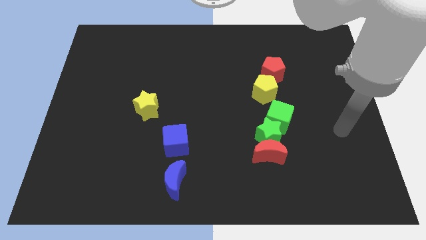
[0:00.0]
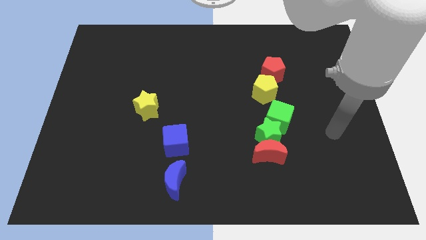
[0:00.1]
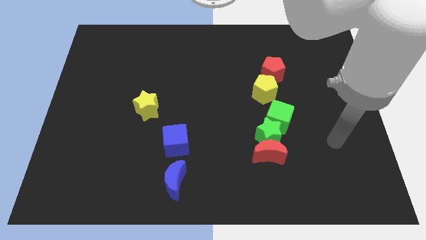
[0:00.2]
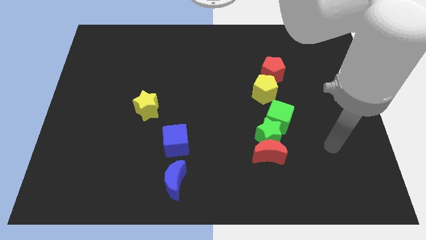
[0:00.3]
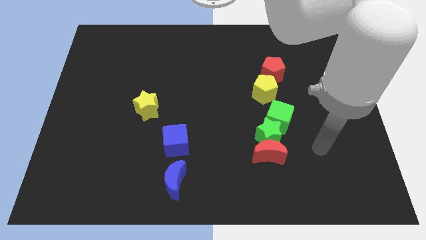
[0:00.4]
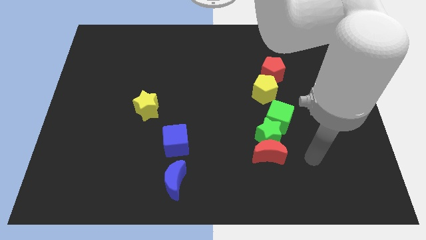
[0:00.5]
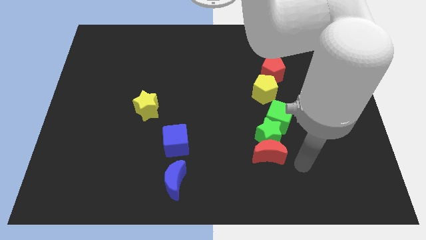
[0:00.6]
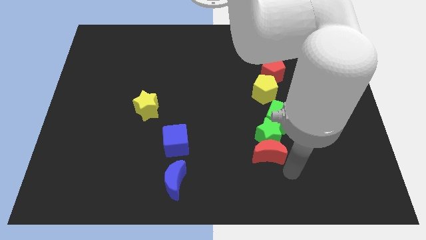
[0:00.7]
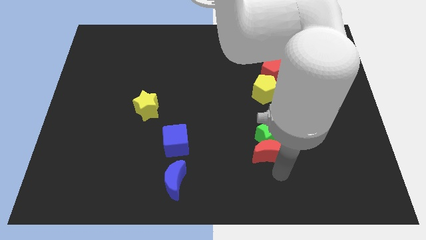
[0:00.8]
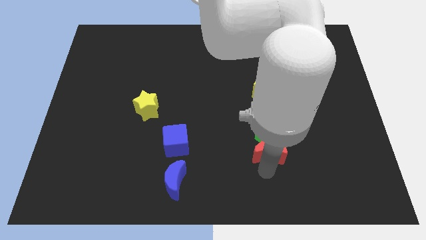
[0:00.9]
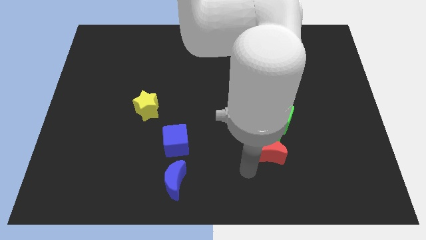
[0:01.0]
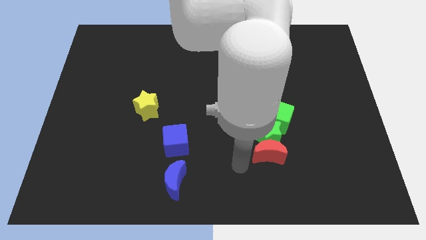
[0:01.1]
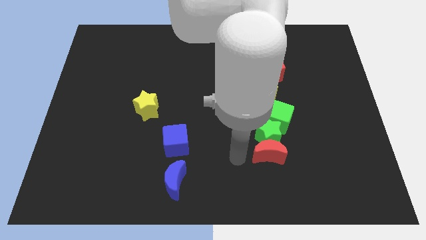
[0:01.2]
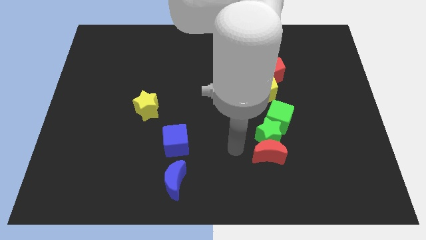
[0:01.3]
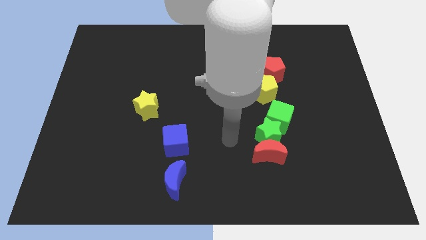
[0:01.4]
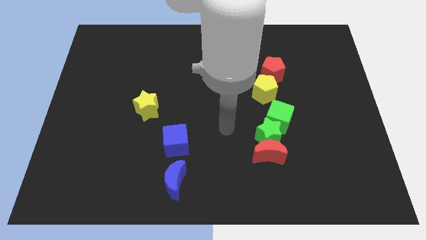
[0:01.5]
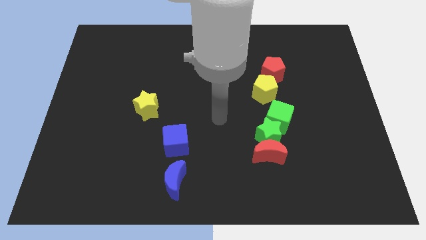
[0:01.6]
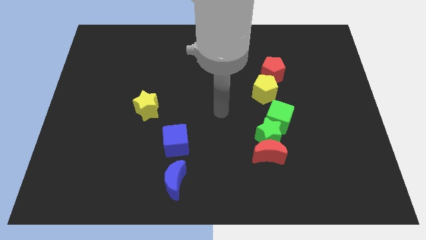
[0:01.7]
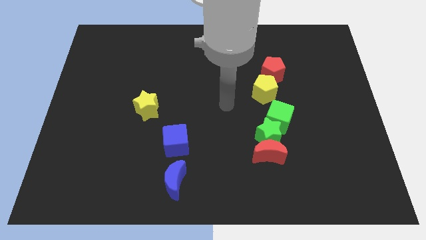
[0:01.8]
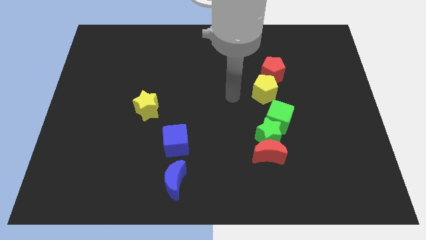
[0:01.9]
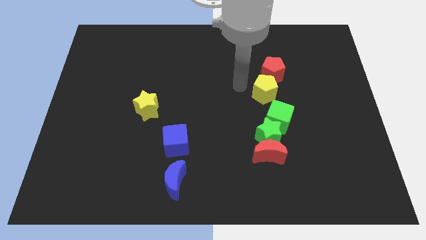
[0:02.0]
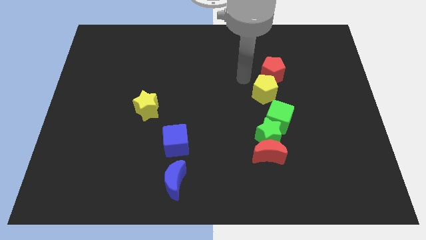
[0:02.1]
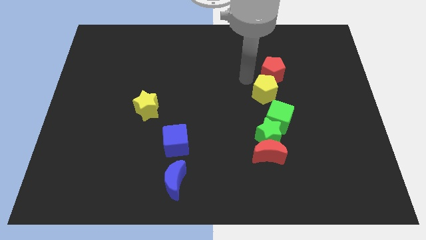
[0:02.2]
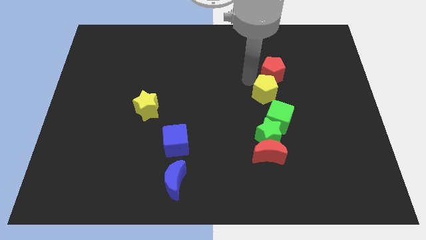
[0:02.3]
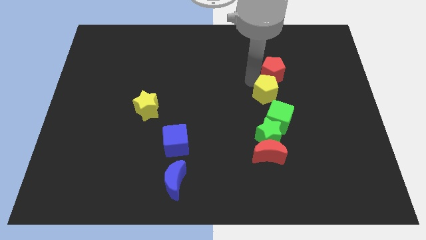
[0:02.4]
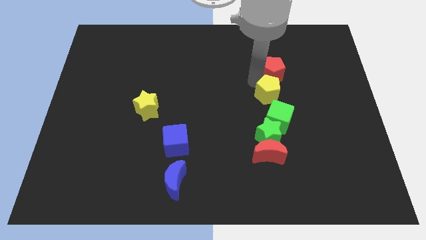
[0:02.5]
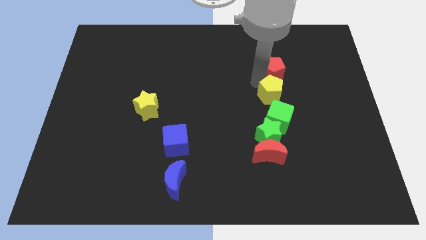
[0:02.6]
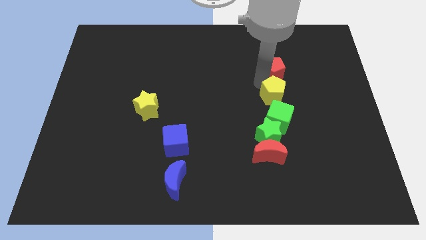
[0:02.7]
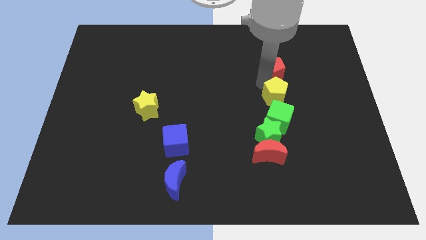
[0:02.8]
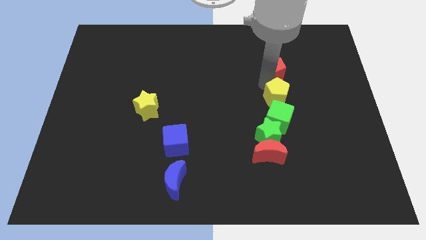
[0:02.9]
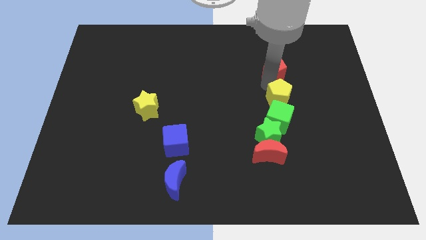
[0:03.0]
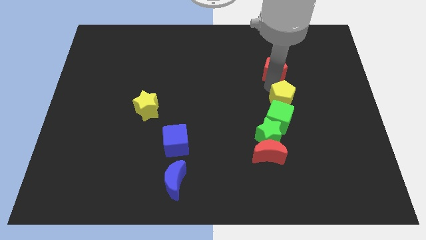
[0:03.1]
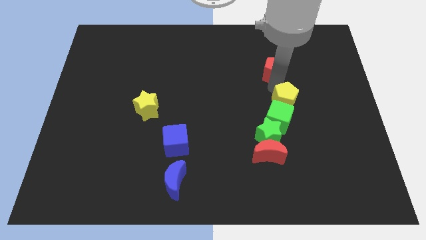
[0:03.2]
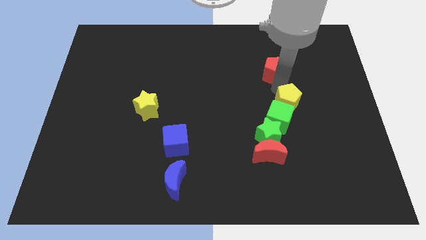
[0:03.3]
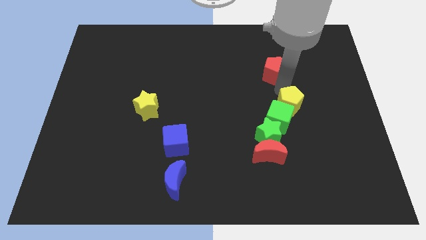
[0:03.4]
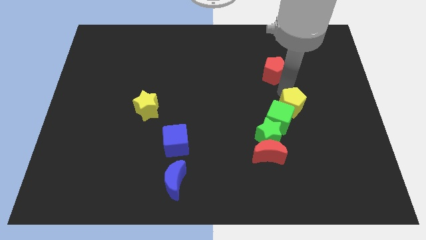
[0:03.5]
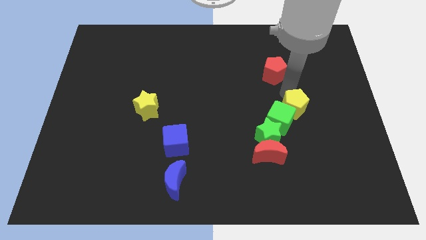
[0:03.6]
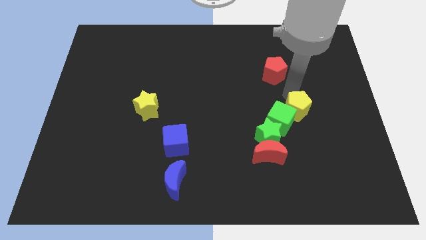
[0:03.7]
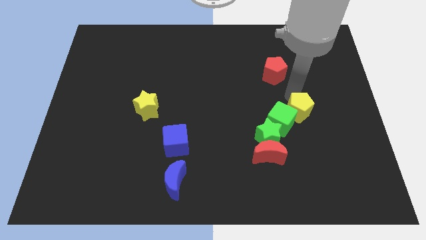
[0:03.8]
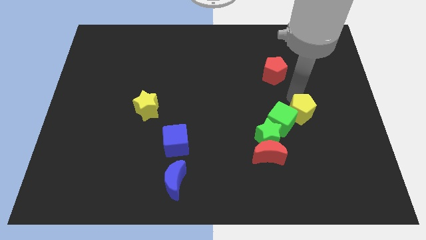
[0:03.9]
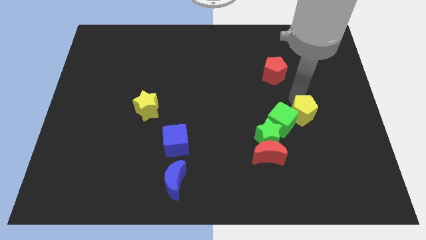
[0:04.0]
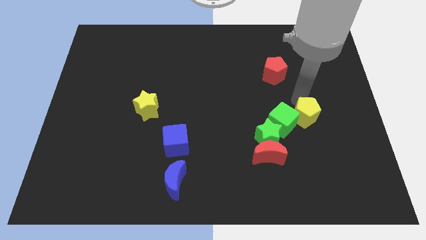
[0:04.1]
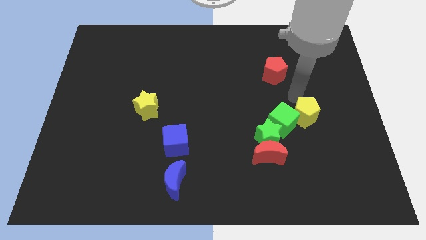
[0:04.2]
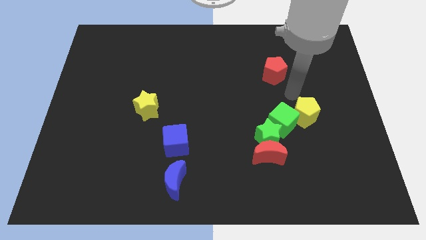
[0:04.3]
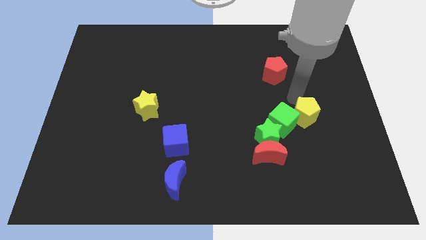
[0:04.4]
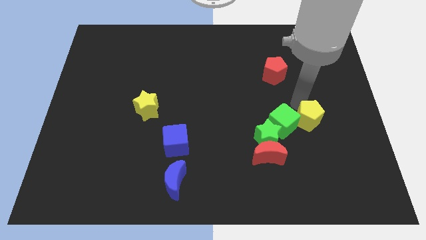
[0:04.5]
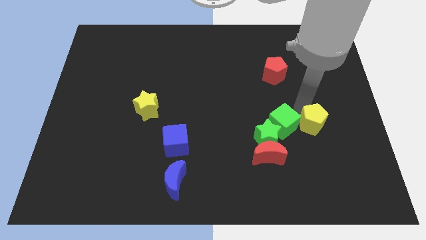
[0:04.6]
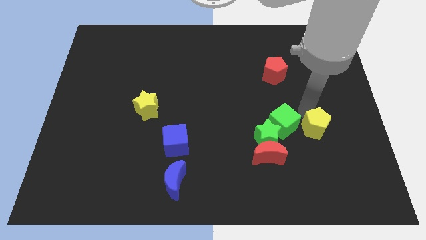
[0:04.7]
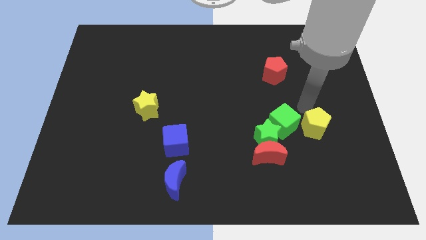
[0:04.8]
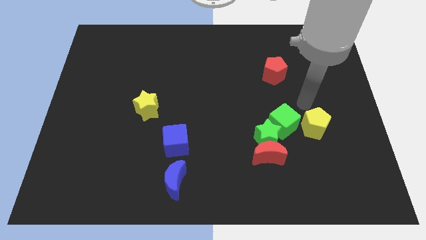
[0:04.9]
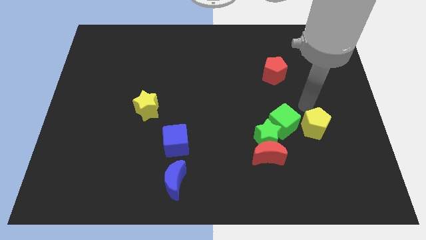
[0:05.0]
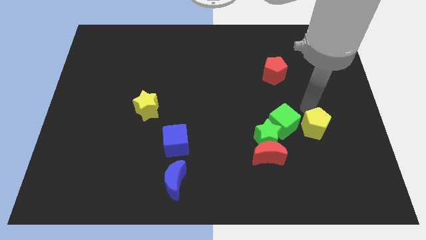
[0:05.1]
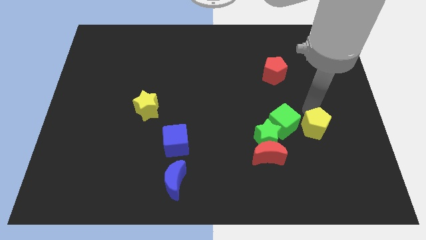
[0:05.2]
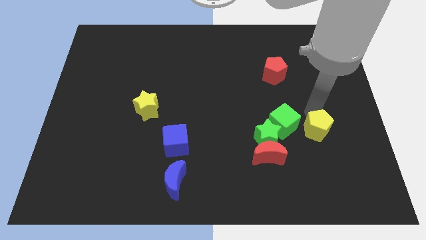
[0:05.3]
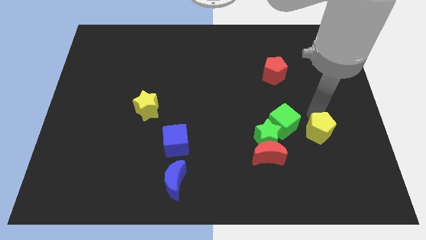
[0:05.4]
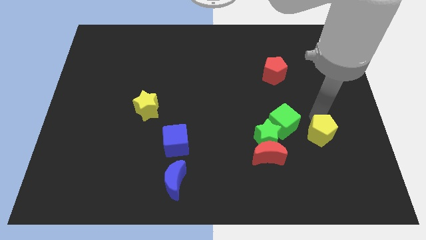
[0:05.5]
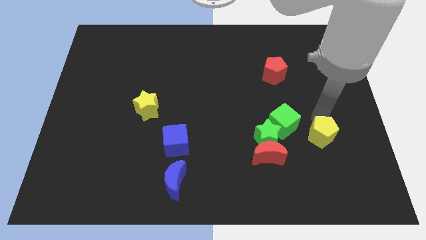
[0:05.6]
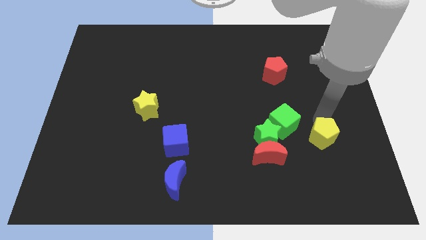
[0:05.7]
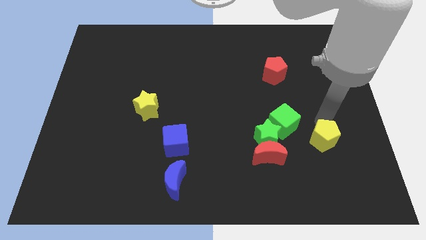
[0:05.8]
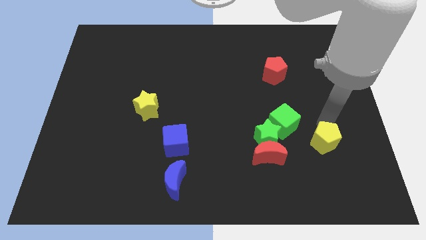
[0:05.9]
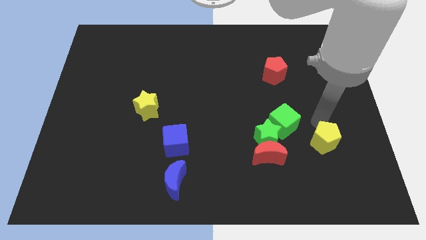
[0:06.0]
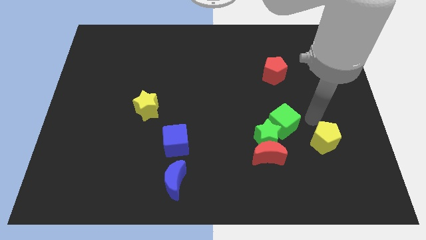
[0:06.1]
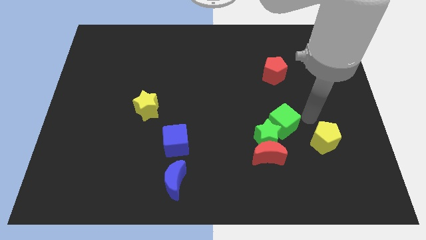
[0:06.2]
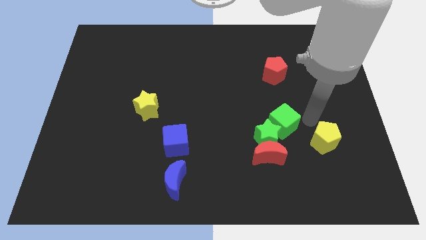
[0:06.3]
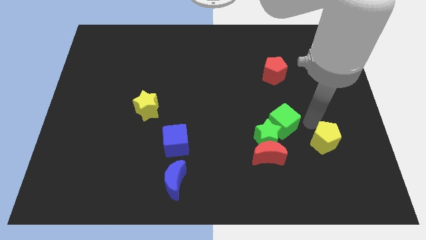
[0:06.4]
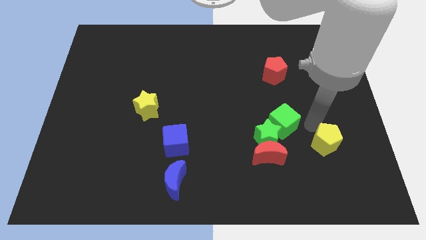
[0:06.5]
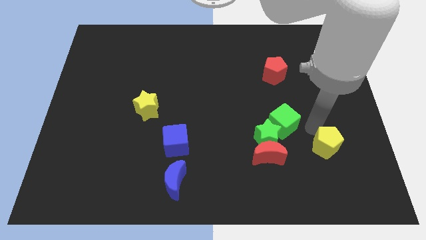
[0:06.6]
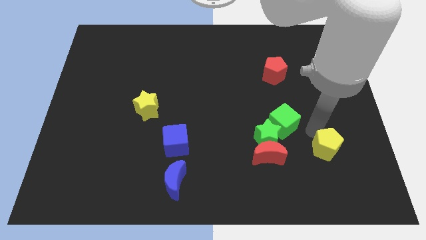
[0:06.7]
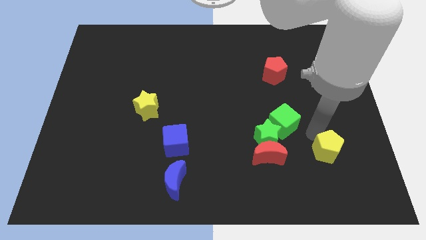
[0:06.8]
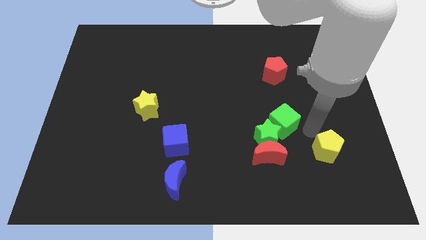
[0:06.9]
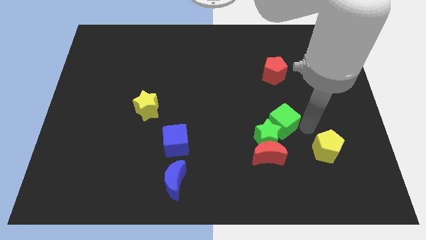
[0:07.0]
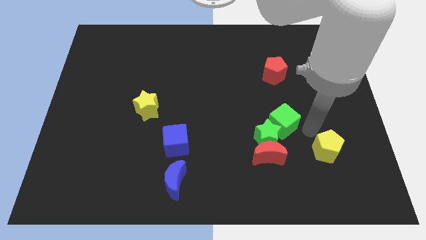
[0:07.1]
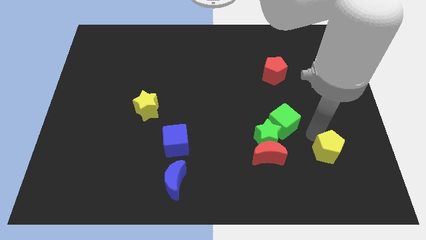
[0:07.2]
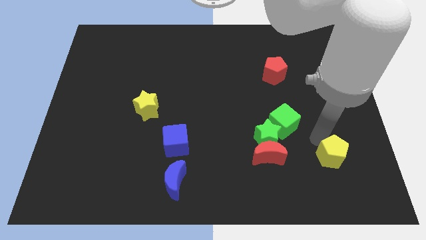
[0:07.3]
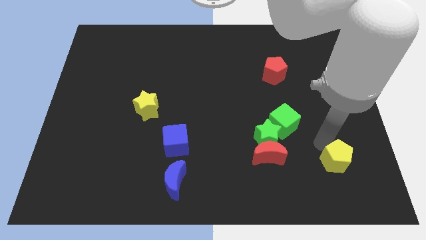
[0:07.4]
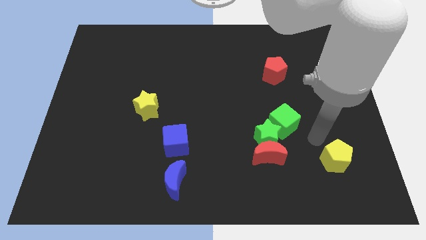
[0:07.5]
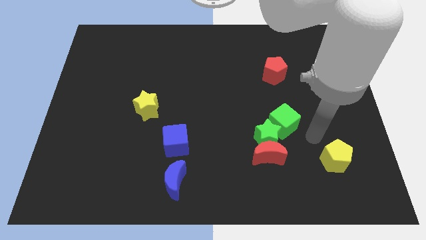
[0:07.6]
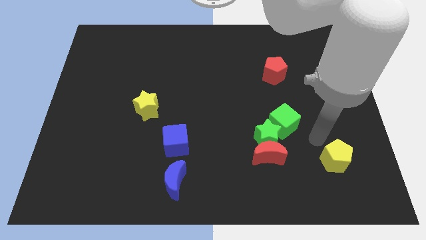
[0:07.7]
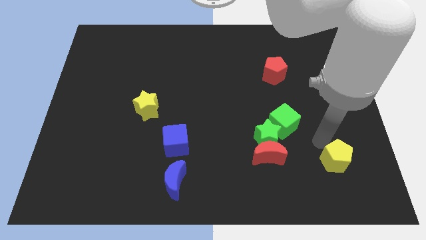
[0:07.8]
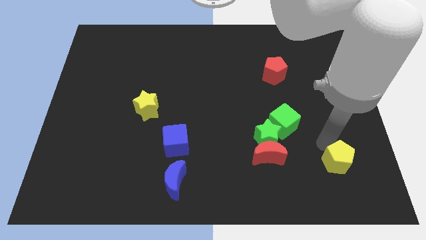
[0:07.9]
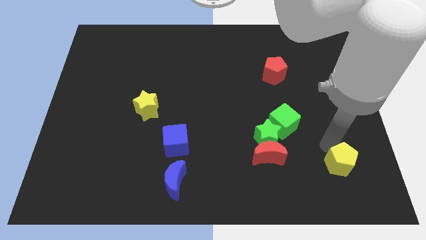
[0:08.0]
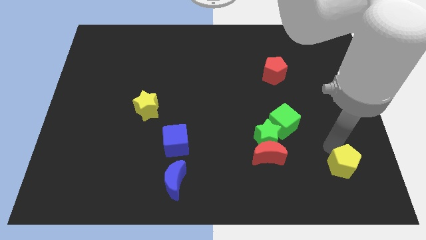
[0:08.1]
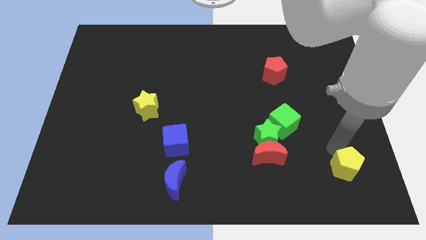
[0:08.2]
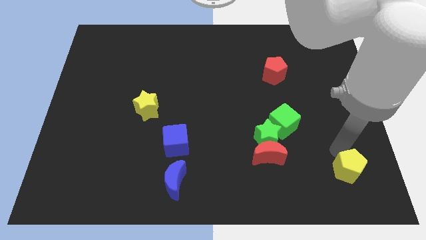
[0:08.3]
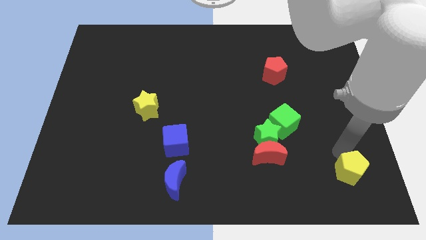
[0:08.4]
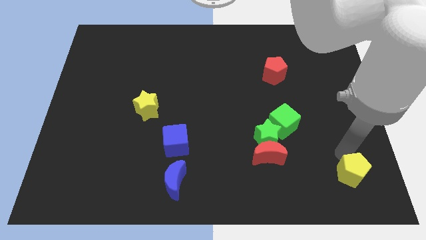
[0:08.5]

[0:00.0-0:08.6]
slide the yellow pentagon to the lower right corner
